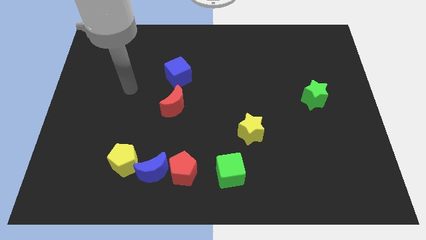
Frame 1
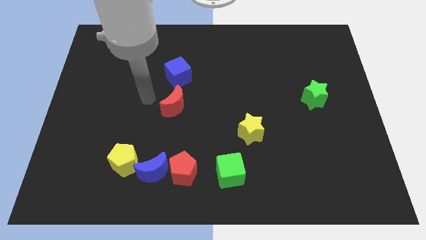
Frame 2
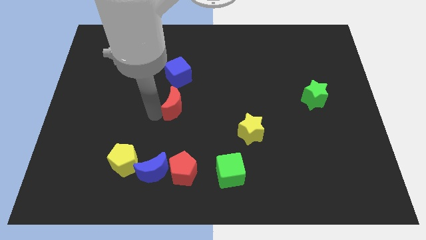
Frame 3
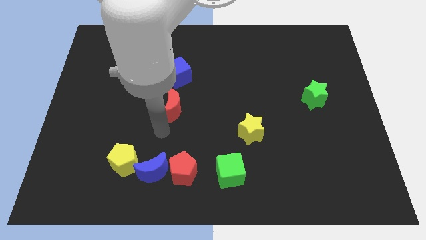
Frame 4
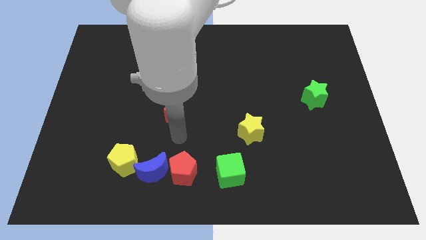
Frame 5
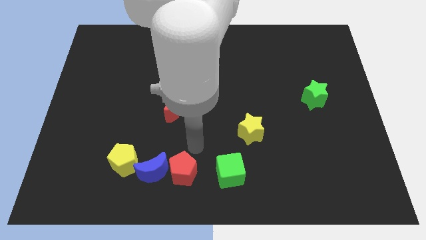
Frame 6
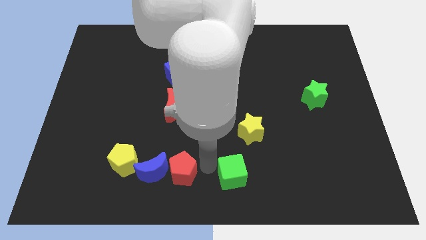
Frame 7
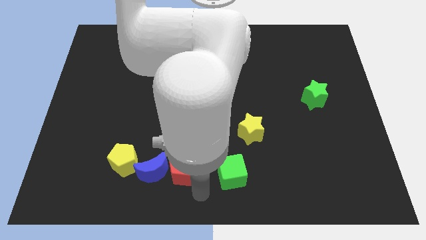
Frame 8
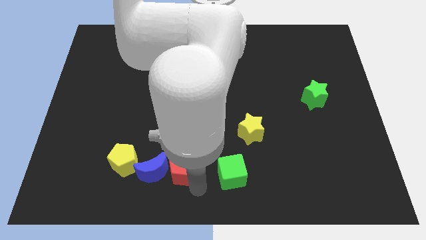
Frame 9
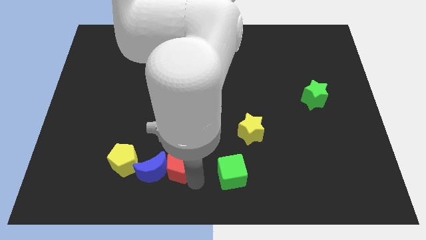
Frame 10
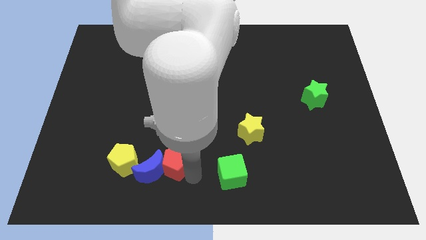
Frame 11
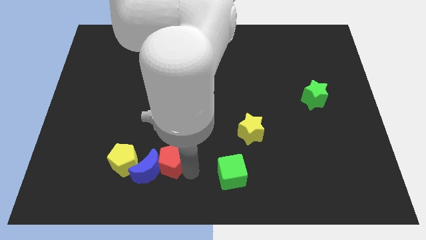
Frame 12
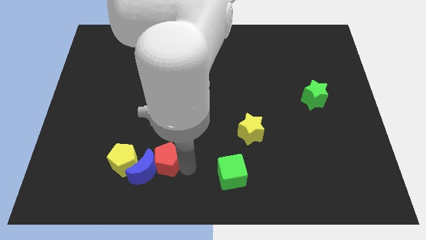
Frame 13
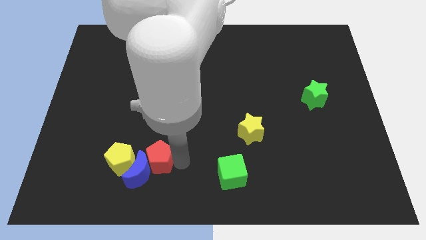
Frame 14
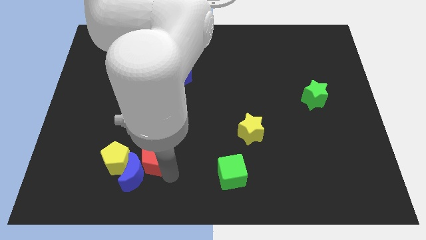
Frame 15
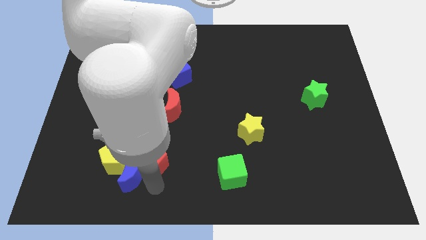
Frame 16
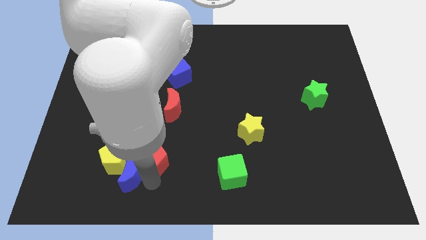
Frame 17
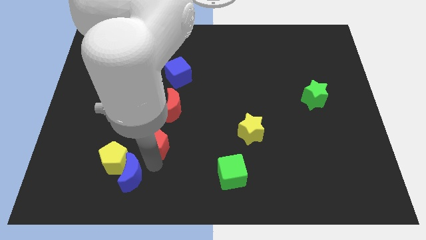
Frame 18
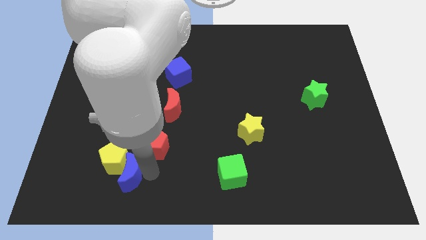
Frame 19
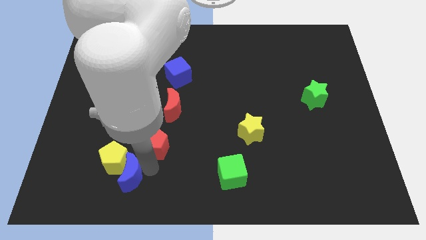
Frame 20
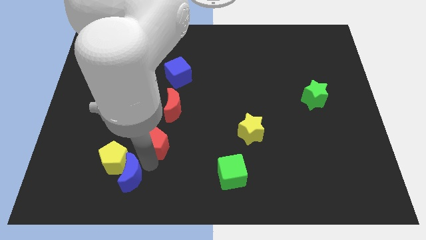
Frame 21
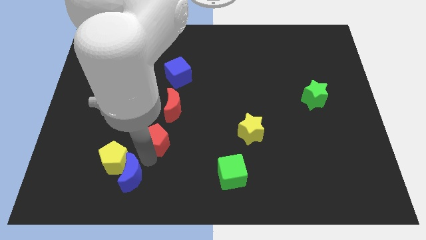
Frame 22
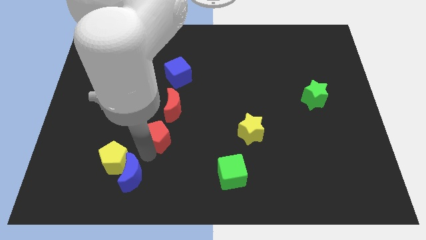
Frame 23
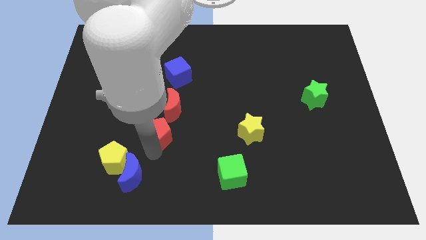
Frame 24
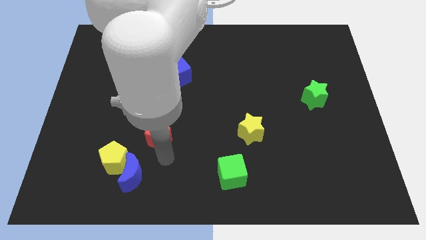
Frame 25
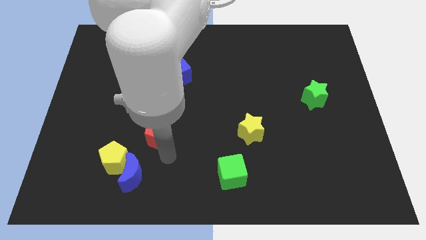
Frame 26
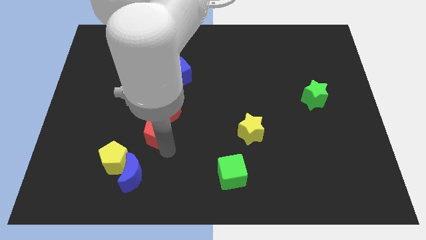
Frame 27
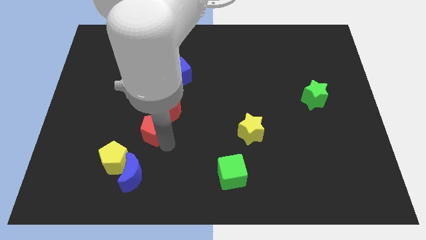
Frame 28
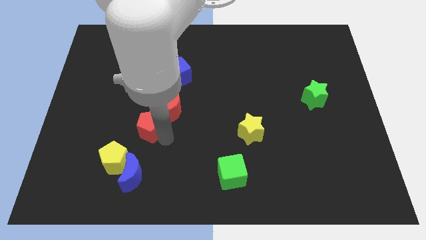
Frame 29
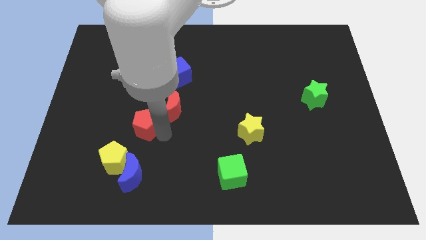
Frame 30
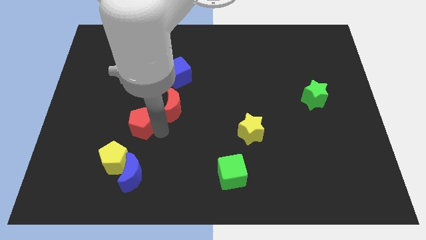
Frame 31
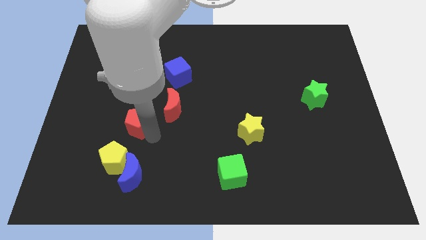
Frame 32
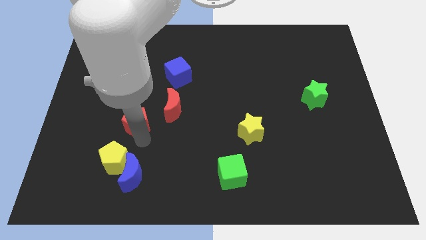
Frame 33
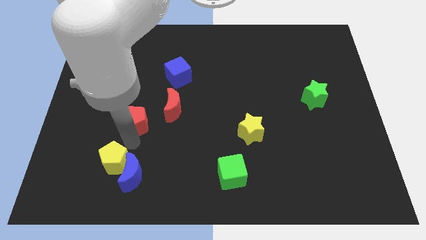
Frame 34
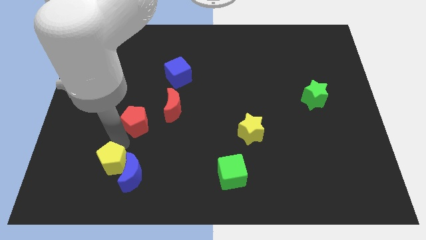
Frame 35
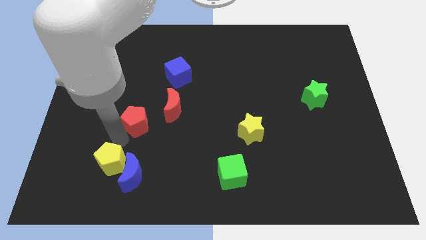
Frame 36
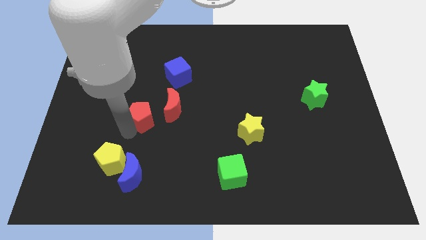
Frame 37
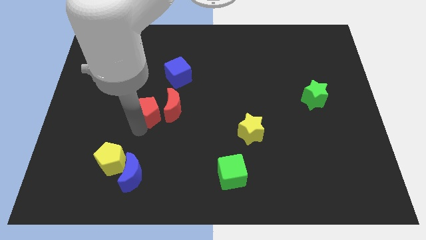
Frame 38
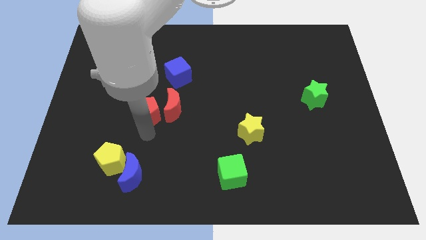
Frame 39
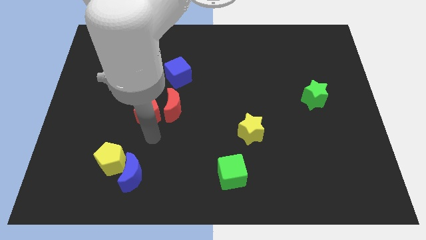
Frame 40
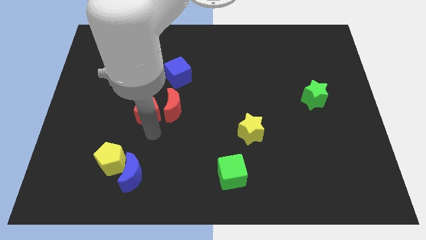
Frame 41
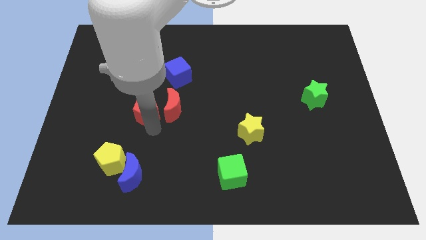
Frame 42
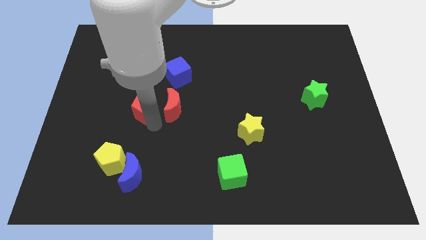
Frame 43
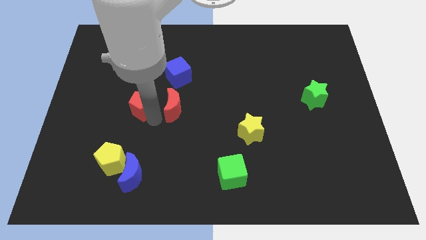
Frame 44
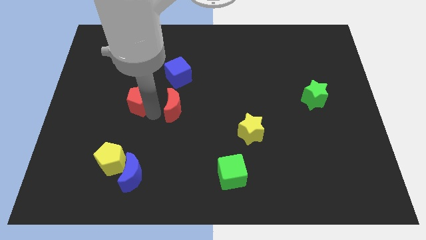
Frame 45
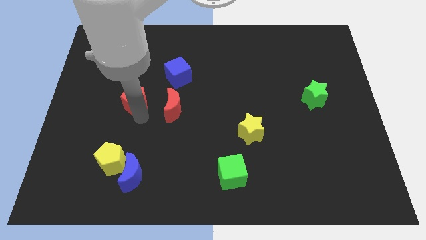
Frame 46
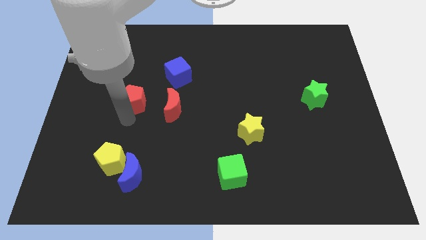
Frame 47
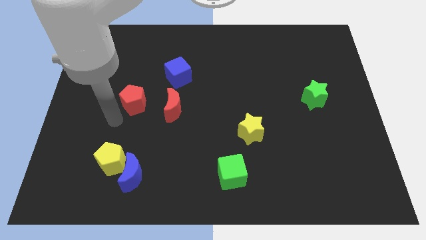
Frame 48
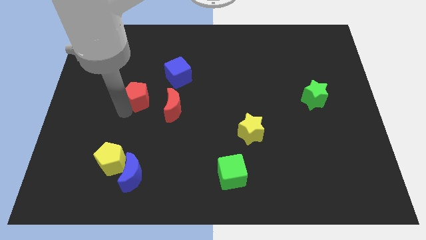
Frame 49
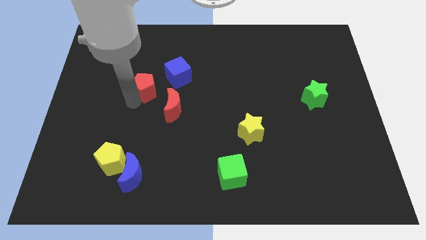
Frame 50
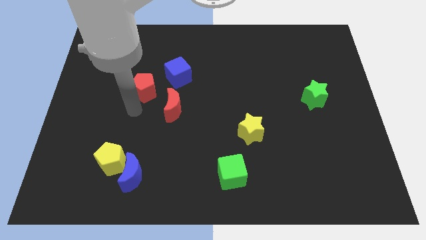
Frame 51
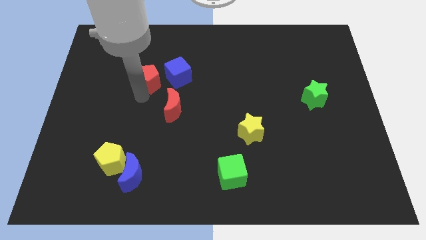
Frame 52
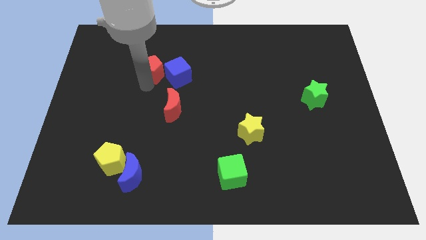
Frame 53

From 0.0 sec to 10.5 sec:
put the red pentagon to the top left side of the blue cube

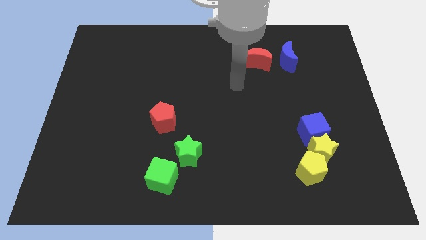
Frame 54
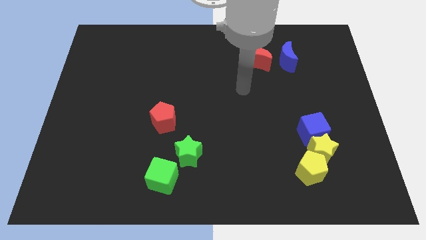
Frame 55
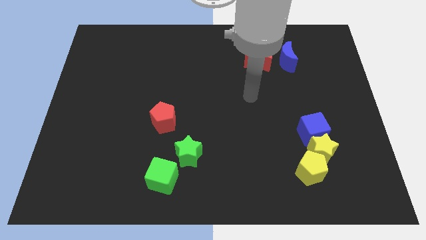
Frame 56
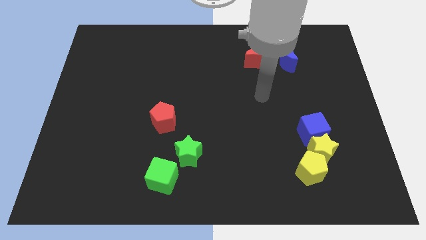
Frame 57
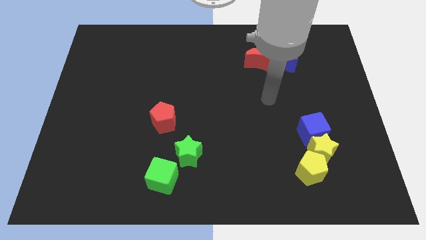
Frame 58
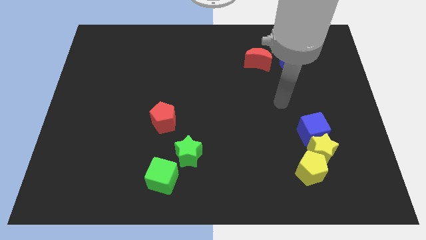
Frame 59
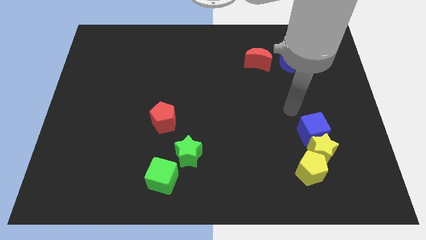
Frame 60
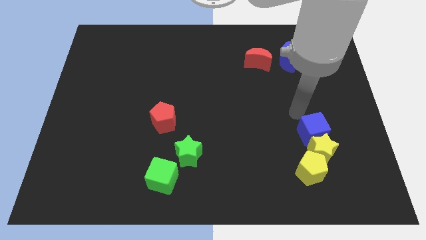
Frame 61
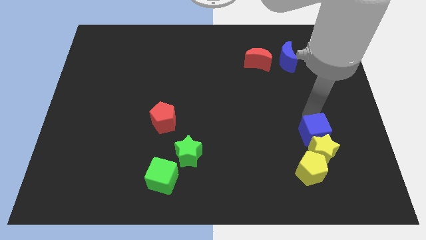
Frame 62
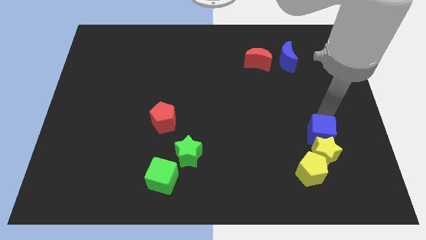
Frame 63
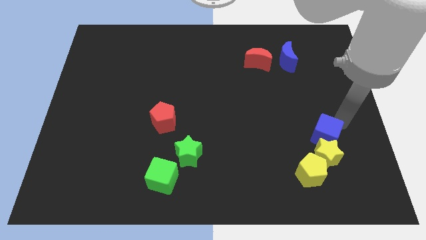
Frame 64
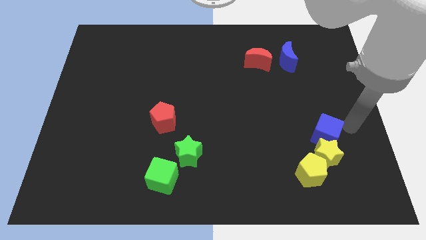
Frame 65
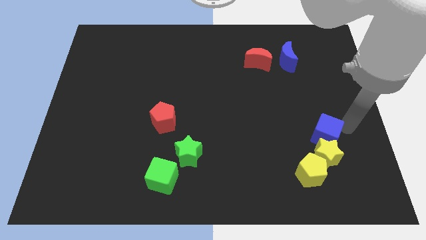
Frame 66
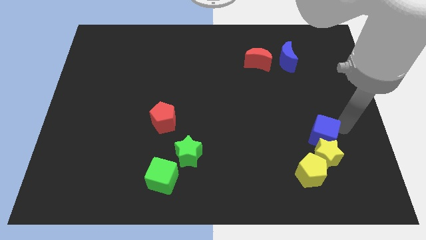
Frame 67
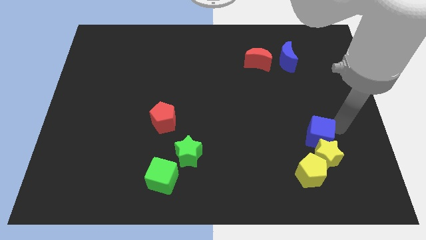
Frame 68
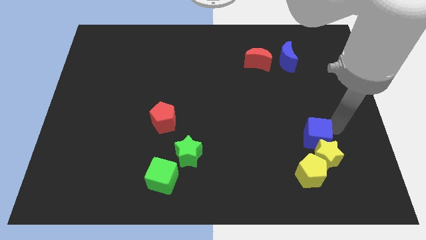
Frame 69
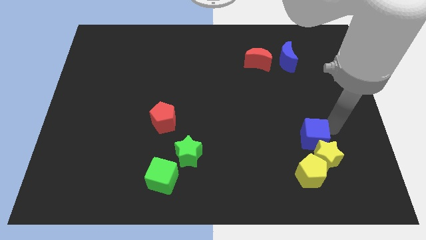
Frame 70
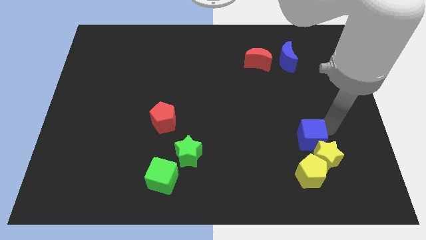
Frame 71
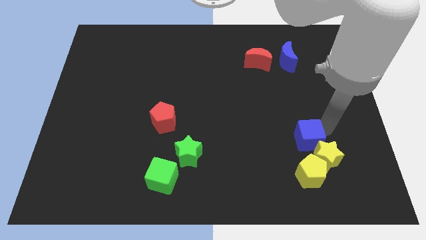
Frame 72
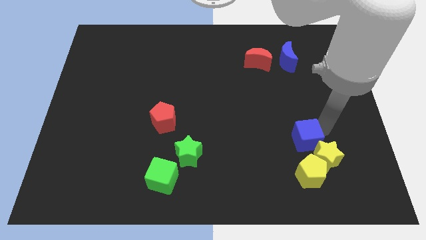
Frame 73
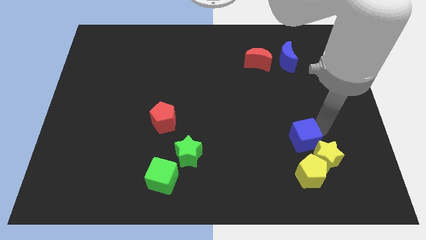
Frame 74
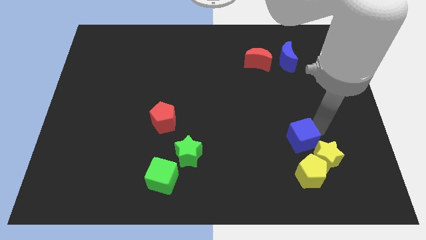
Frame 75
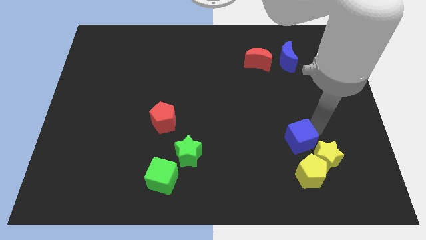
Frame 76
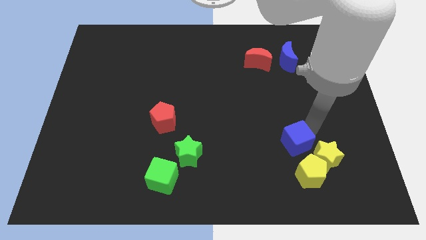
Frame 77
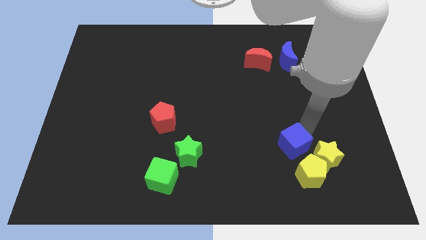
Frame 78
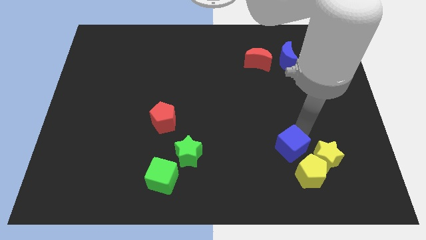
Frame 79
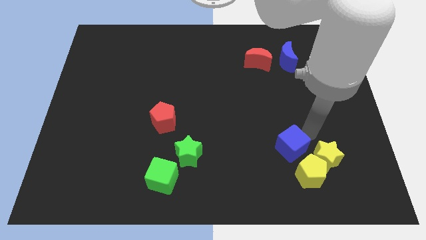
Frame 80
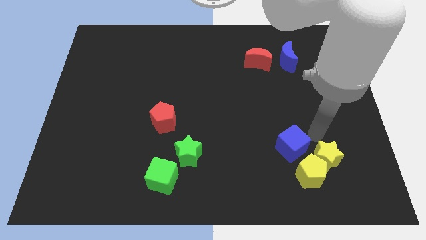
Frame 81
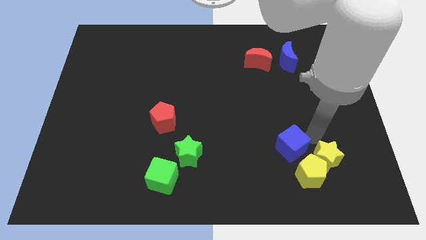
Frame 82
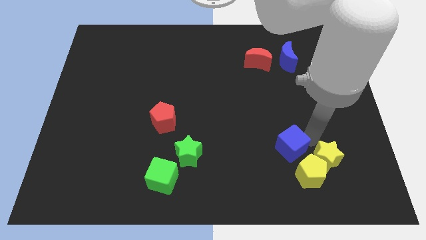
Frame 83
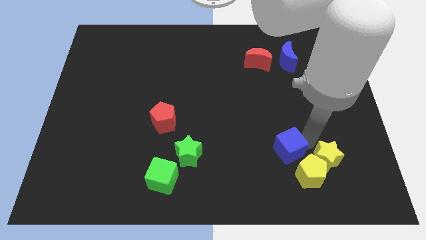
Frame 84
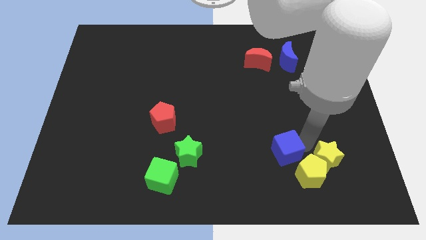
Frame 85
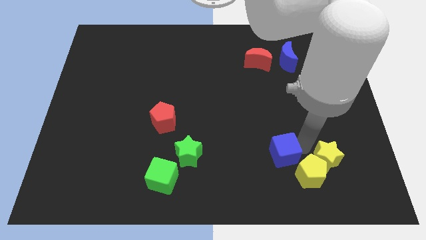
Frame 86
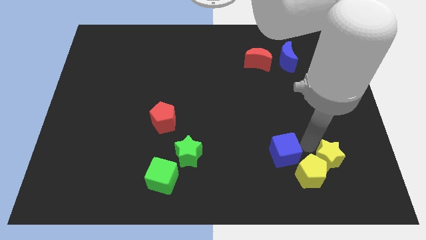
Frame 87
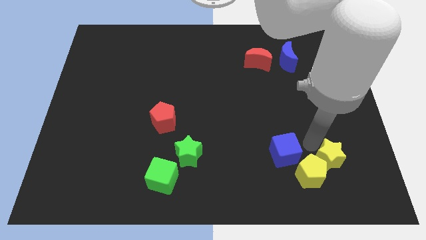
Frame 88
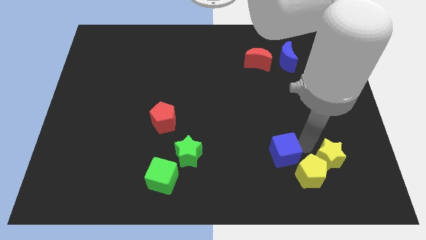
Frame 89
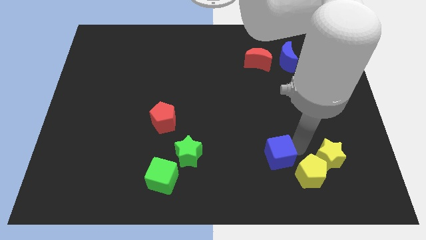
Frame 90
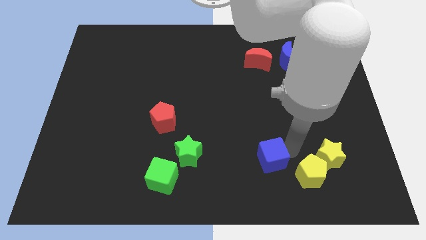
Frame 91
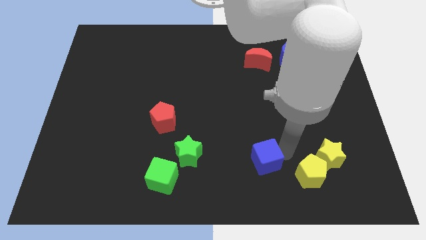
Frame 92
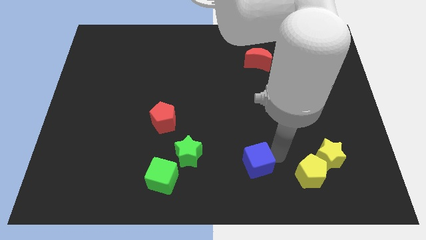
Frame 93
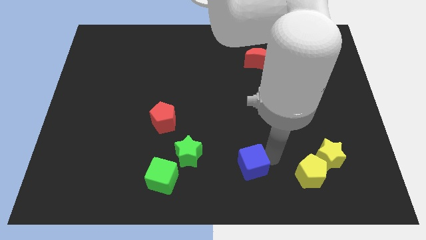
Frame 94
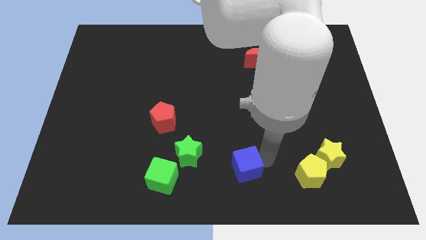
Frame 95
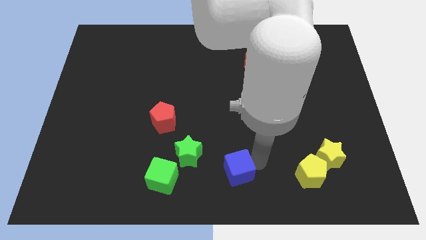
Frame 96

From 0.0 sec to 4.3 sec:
move the blue cube to the right of the green cube
